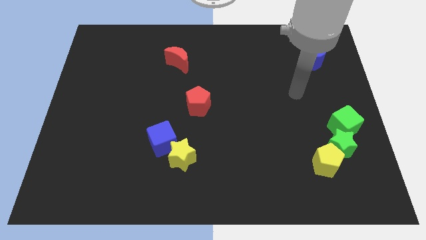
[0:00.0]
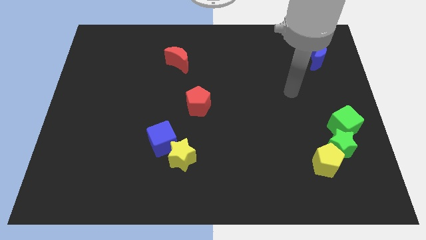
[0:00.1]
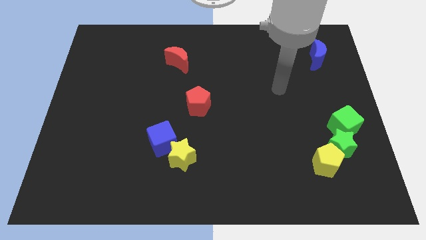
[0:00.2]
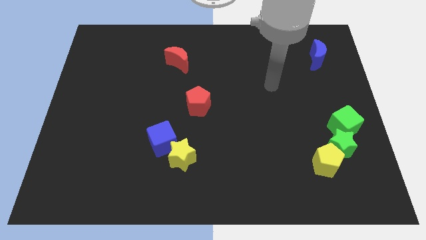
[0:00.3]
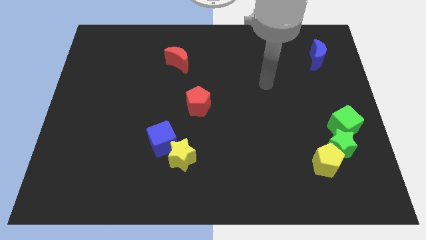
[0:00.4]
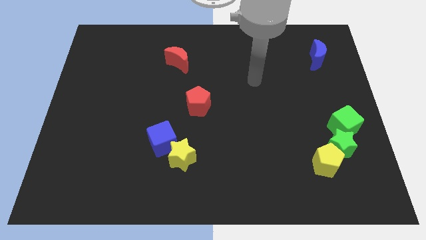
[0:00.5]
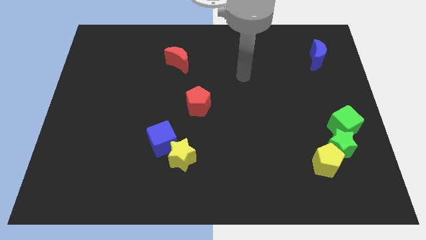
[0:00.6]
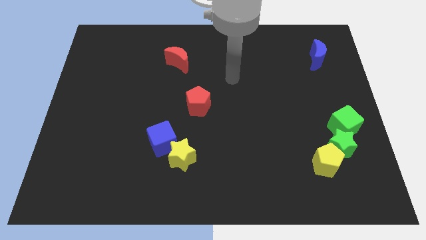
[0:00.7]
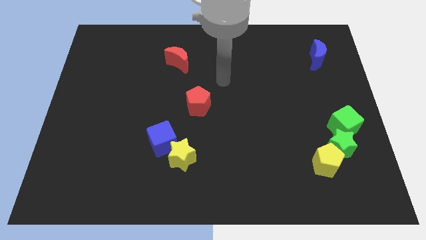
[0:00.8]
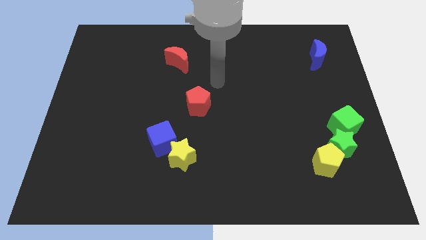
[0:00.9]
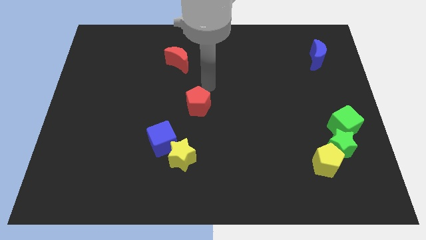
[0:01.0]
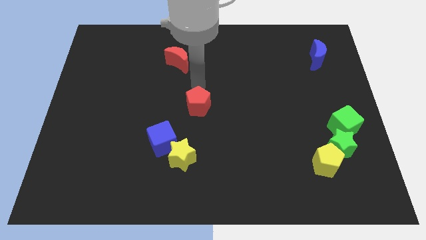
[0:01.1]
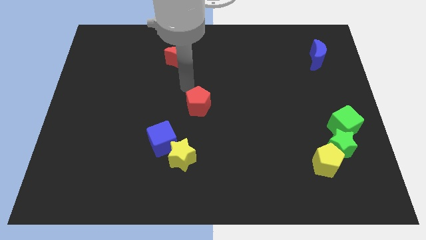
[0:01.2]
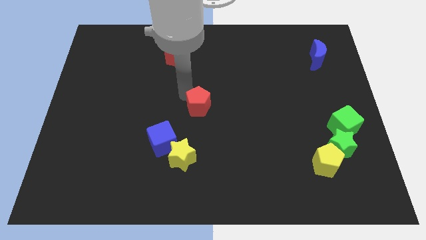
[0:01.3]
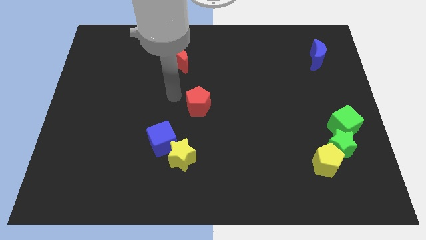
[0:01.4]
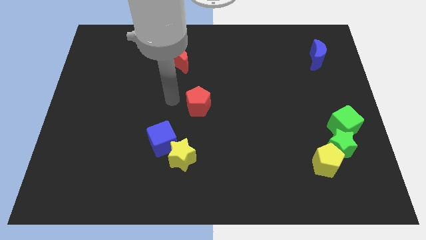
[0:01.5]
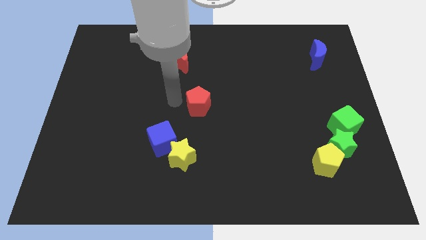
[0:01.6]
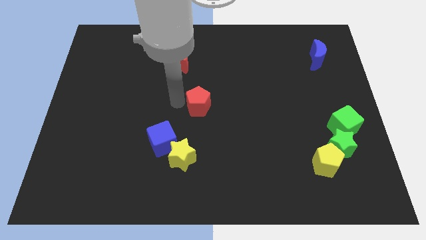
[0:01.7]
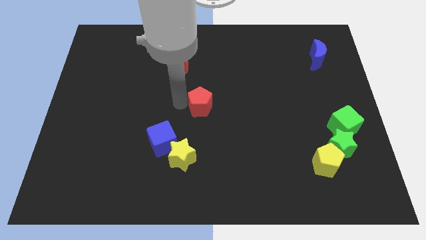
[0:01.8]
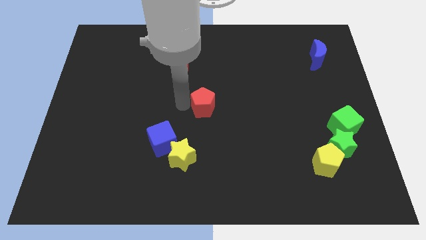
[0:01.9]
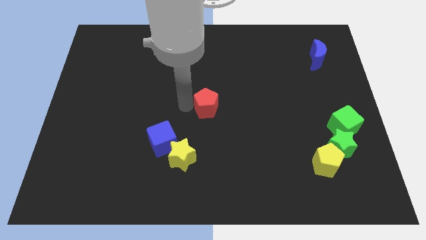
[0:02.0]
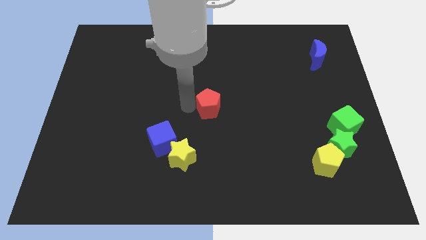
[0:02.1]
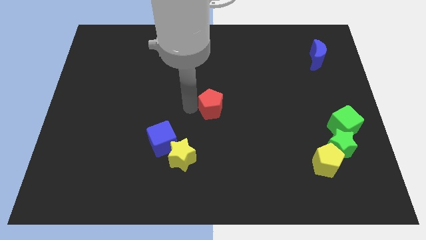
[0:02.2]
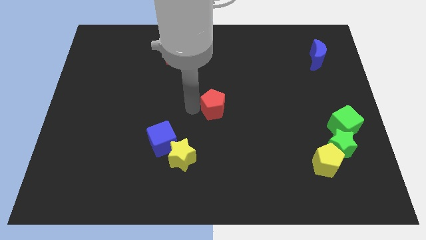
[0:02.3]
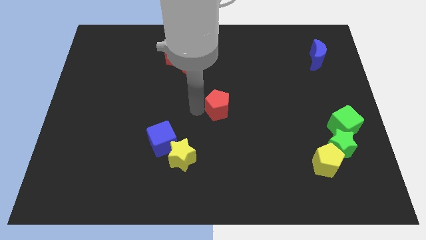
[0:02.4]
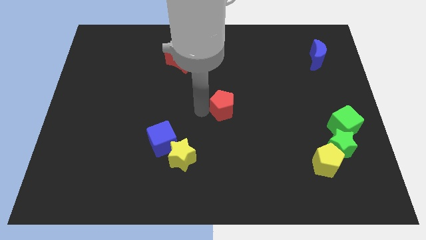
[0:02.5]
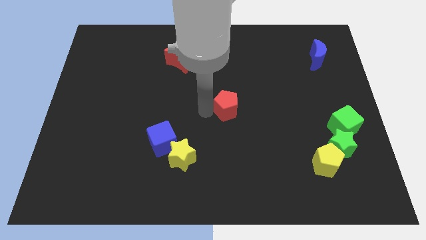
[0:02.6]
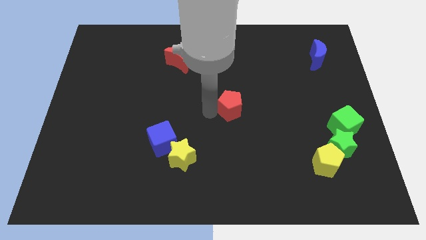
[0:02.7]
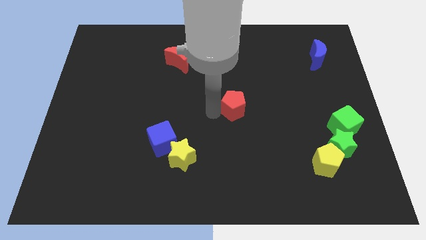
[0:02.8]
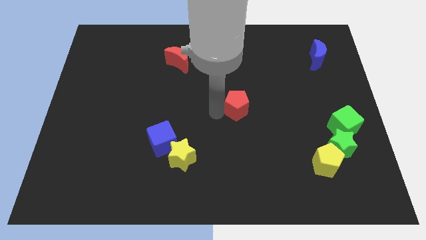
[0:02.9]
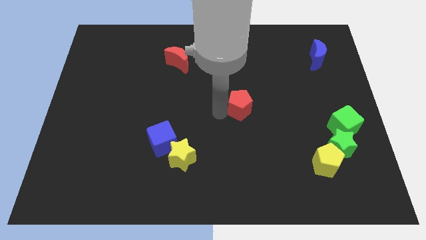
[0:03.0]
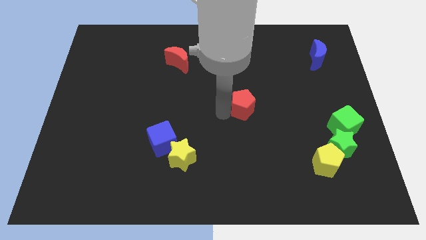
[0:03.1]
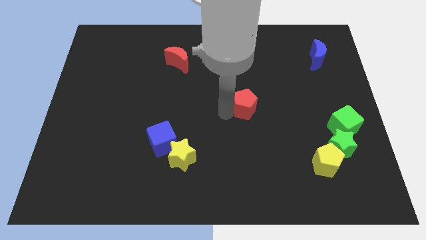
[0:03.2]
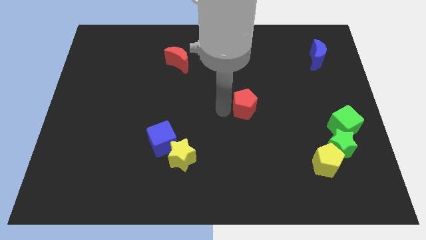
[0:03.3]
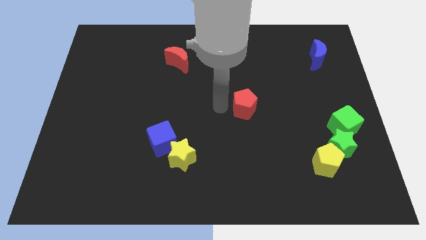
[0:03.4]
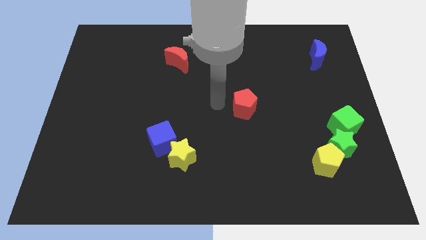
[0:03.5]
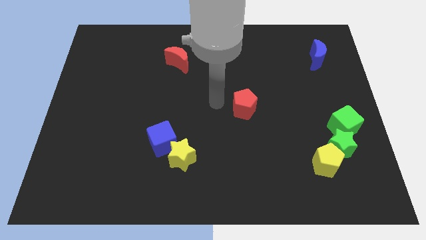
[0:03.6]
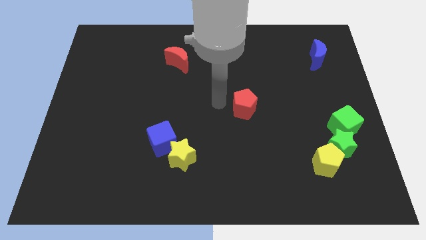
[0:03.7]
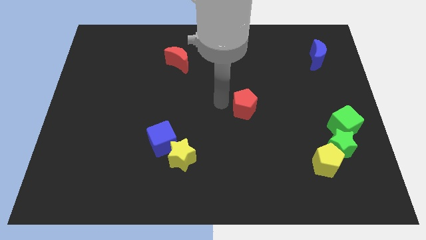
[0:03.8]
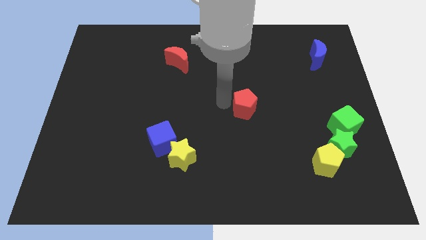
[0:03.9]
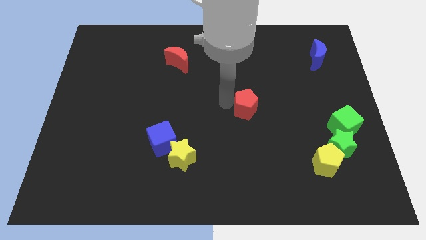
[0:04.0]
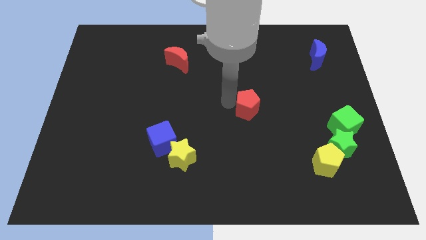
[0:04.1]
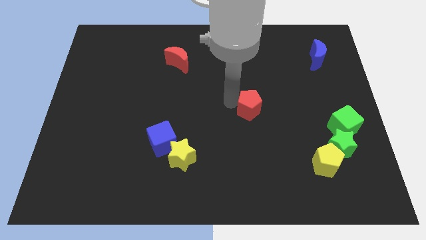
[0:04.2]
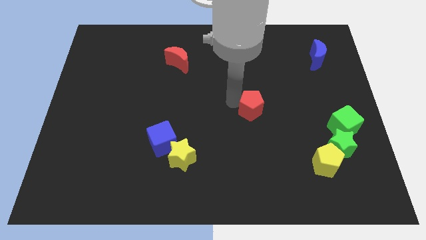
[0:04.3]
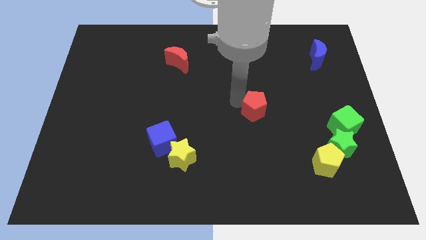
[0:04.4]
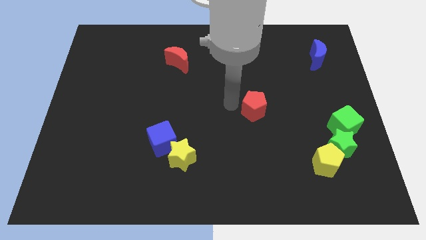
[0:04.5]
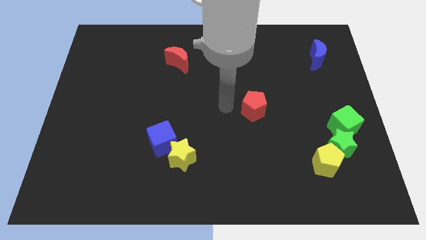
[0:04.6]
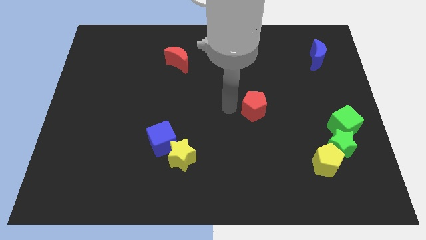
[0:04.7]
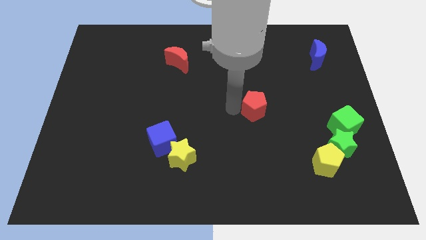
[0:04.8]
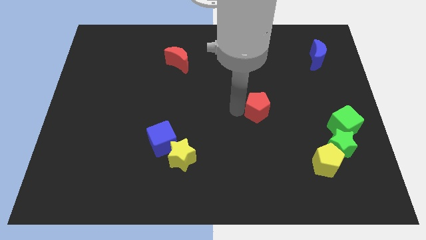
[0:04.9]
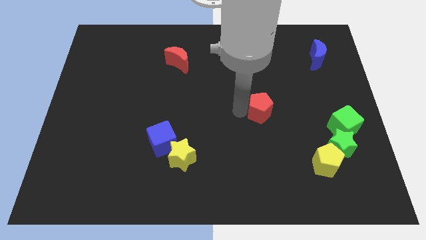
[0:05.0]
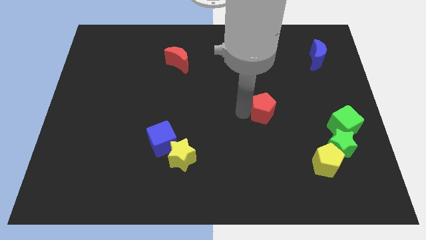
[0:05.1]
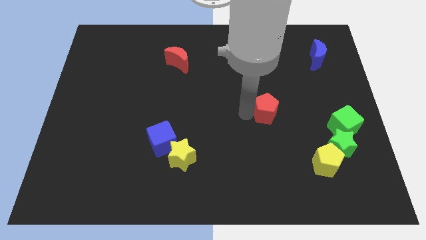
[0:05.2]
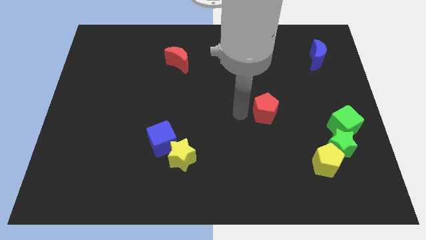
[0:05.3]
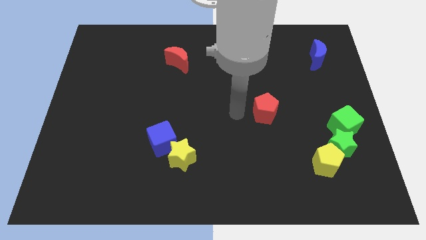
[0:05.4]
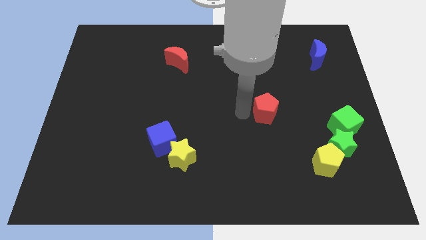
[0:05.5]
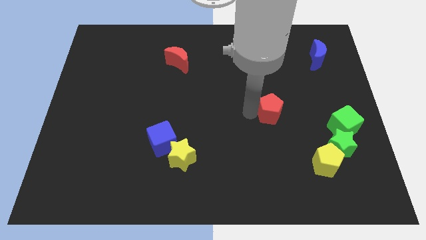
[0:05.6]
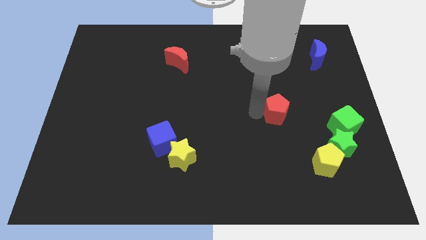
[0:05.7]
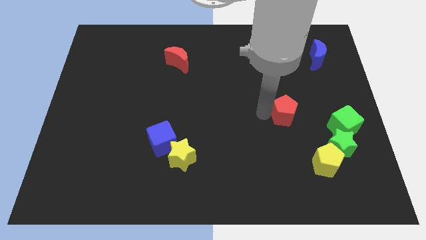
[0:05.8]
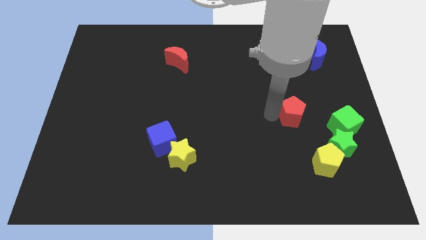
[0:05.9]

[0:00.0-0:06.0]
push the red pentagon right

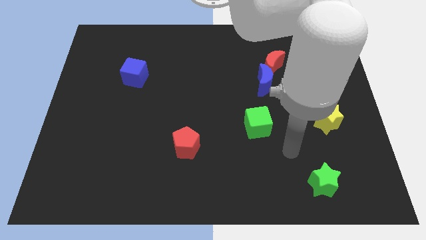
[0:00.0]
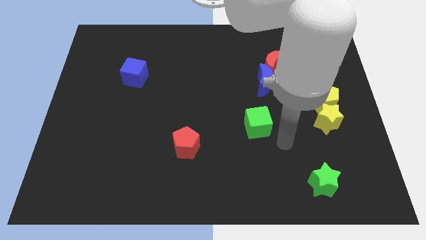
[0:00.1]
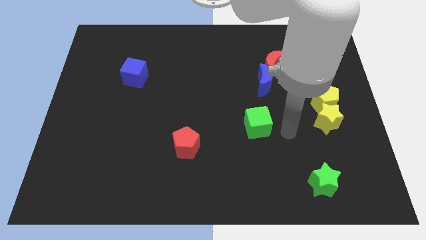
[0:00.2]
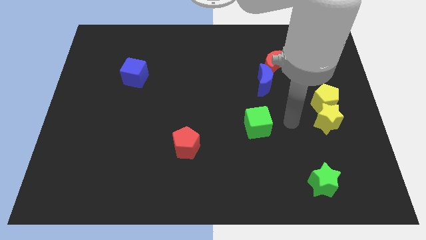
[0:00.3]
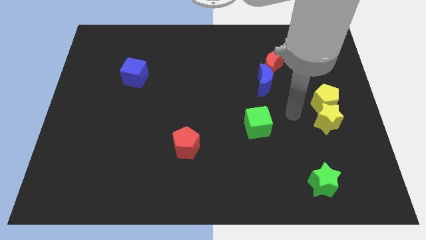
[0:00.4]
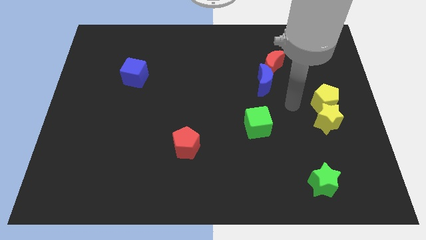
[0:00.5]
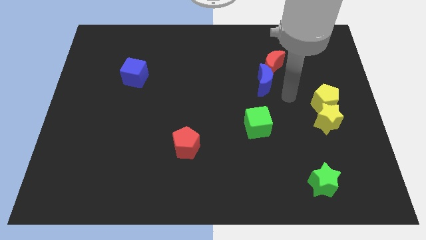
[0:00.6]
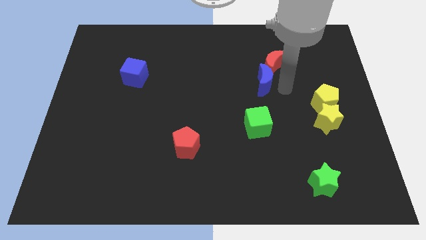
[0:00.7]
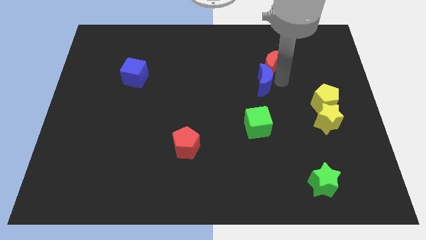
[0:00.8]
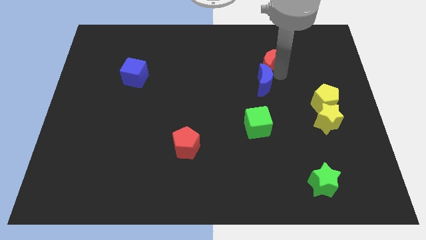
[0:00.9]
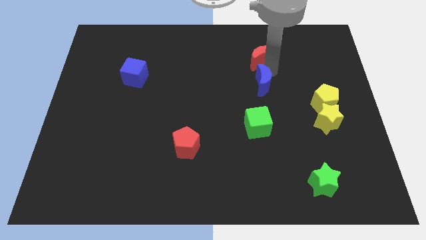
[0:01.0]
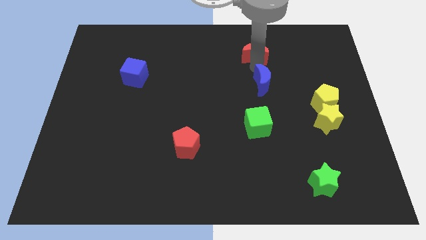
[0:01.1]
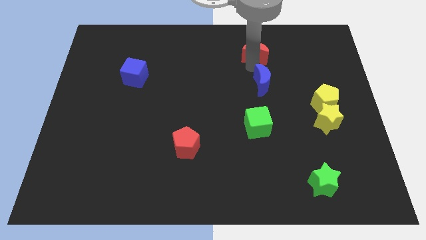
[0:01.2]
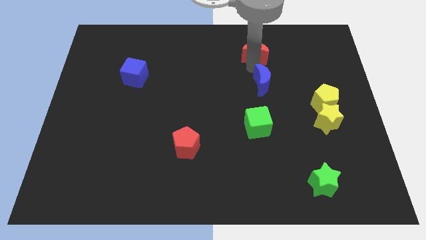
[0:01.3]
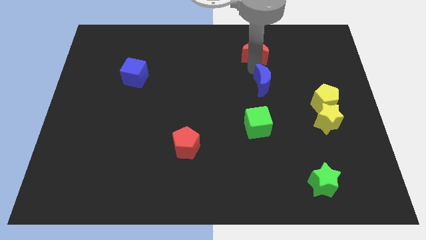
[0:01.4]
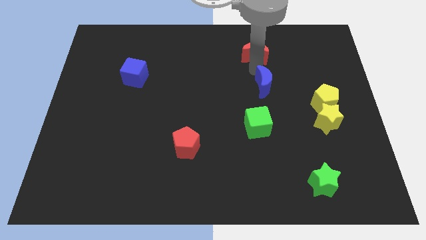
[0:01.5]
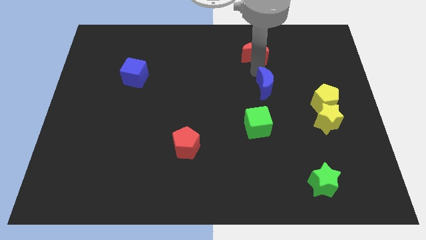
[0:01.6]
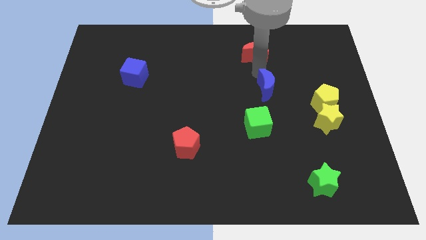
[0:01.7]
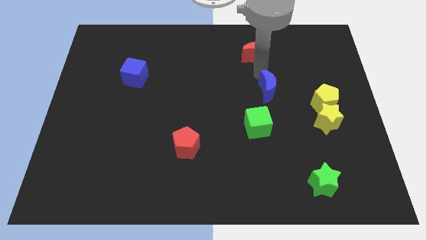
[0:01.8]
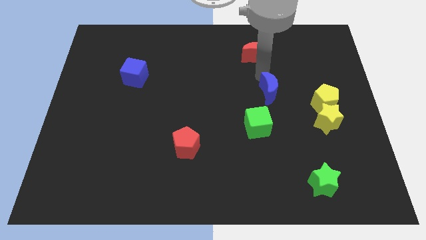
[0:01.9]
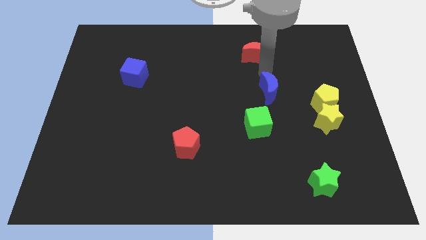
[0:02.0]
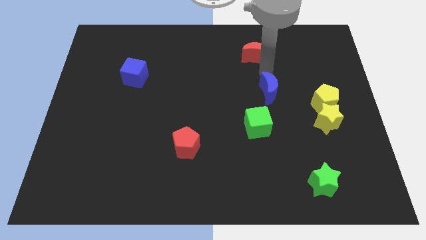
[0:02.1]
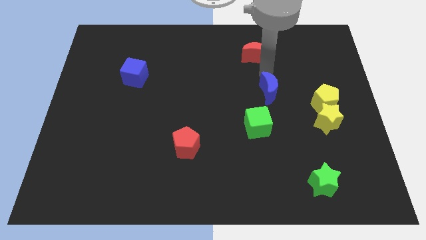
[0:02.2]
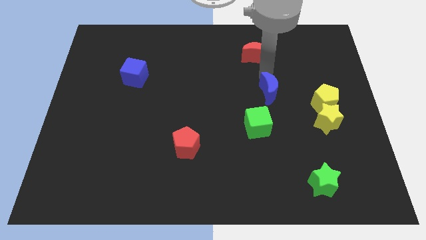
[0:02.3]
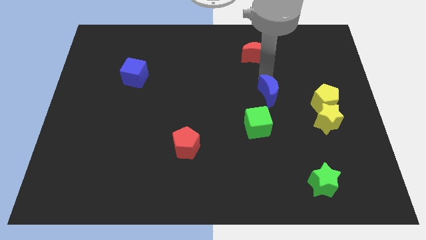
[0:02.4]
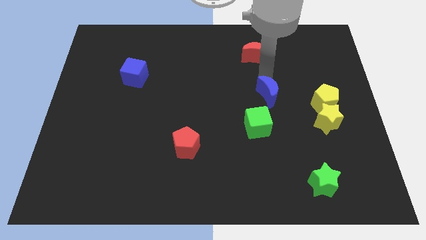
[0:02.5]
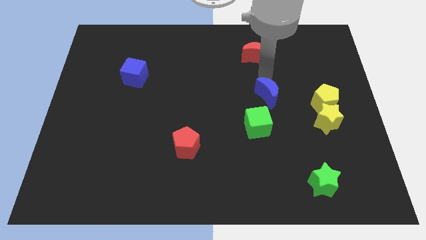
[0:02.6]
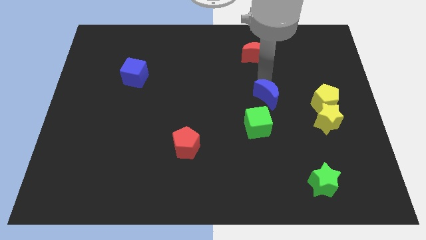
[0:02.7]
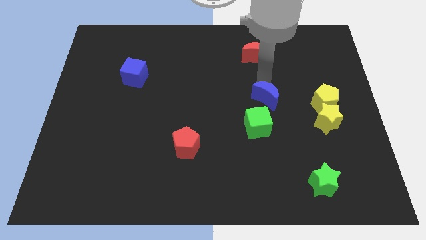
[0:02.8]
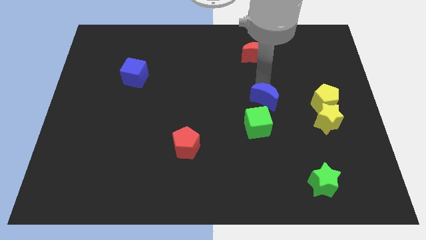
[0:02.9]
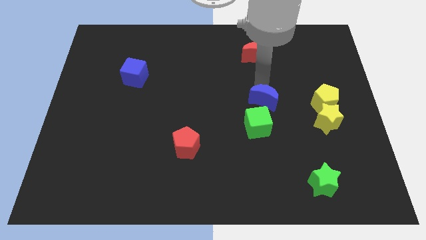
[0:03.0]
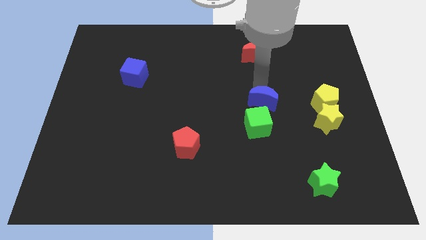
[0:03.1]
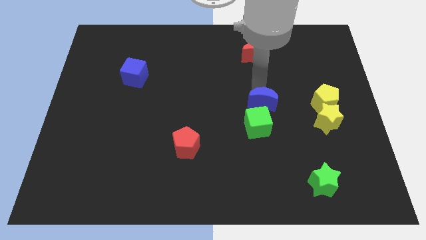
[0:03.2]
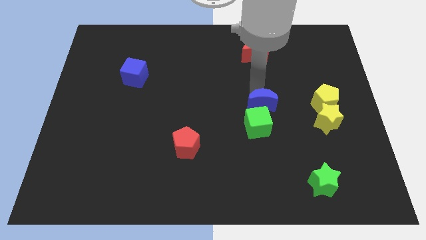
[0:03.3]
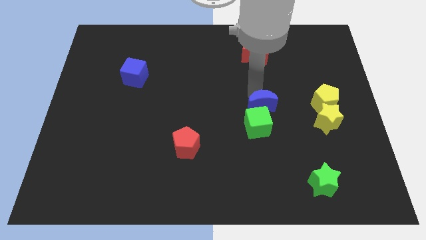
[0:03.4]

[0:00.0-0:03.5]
slightly move the blue moon downwards
